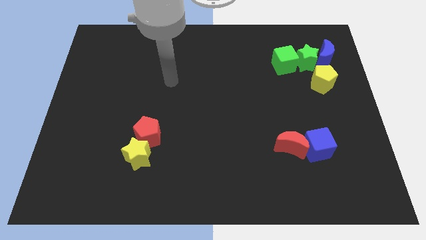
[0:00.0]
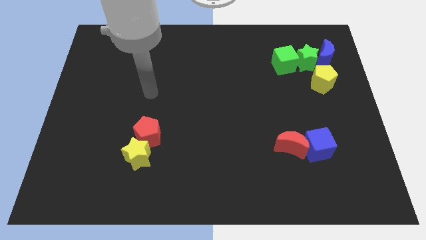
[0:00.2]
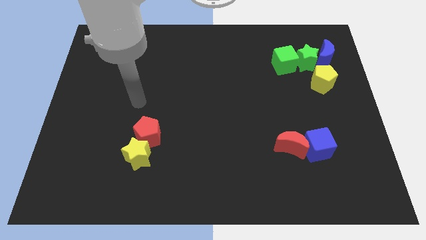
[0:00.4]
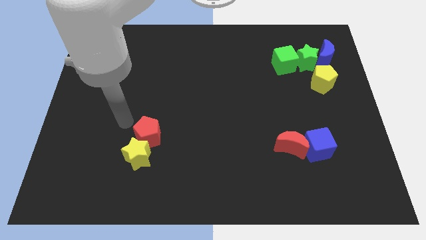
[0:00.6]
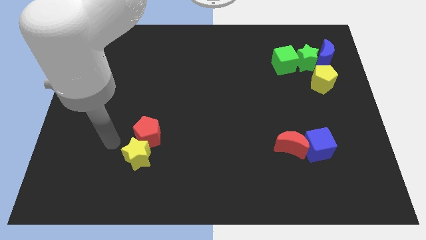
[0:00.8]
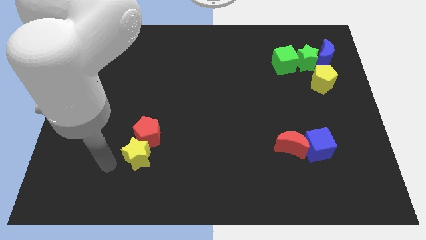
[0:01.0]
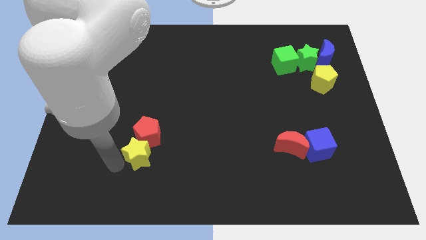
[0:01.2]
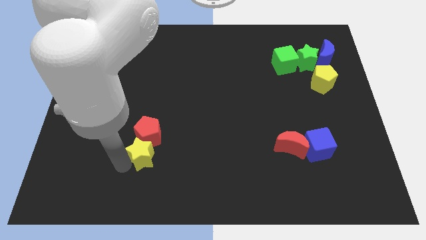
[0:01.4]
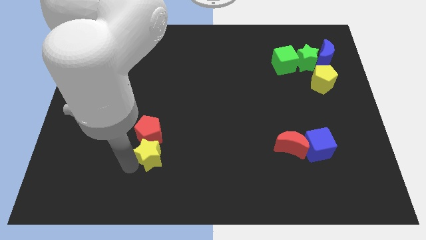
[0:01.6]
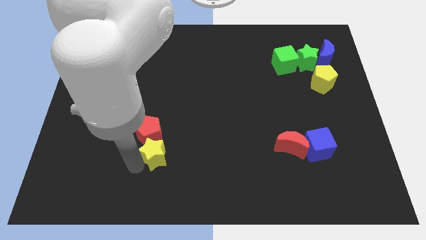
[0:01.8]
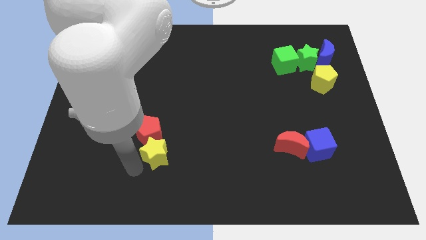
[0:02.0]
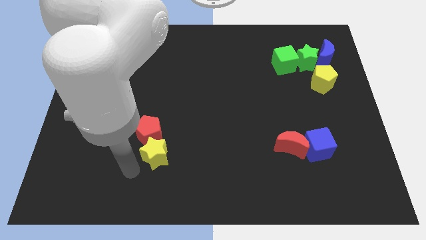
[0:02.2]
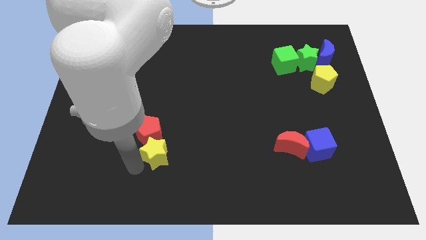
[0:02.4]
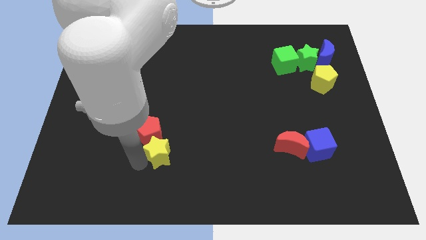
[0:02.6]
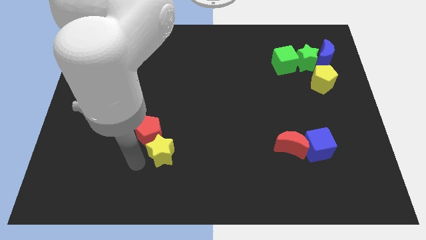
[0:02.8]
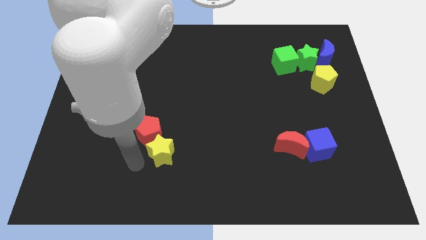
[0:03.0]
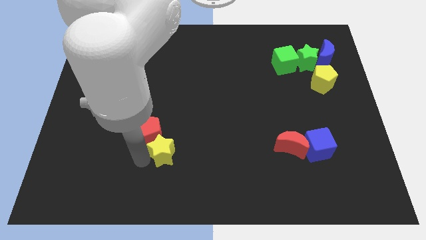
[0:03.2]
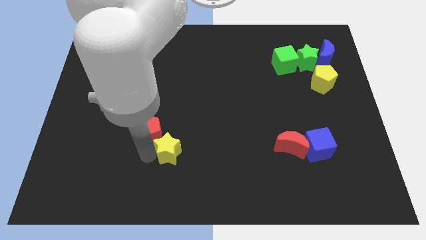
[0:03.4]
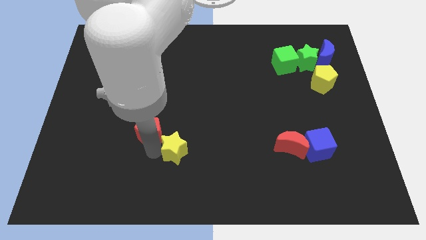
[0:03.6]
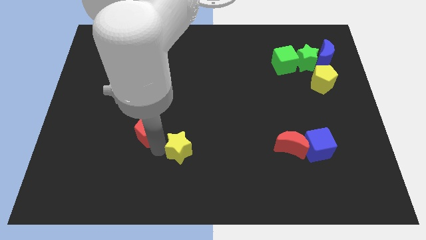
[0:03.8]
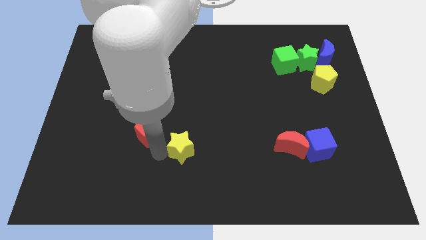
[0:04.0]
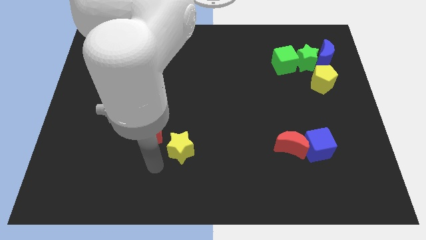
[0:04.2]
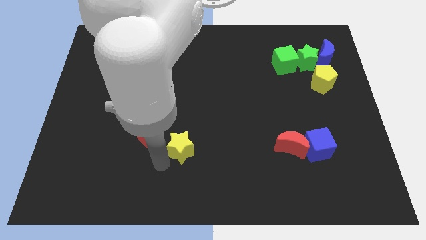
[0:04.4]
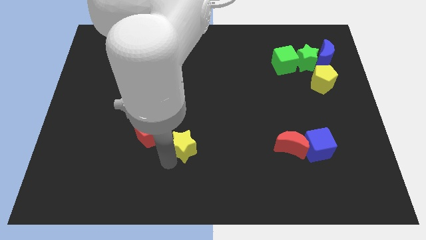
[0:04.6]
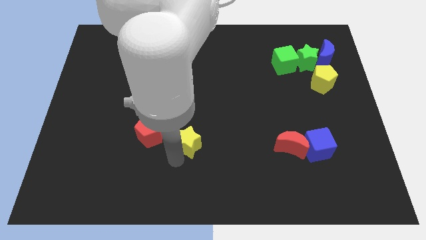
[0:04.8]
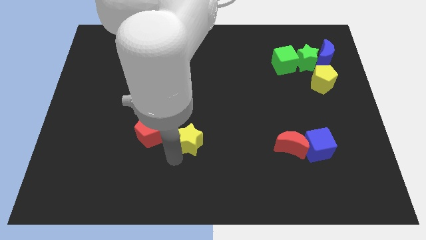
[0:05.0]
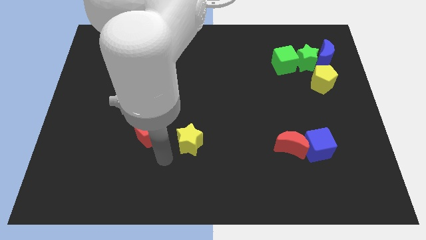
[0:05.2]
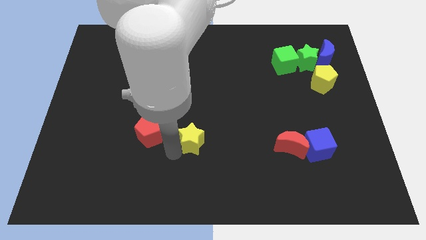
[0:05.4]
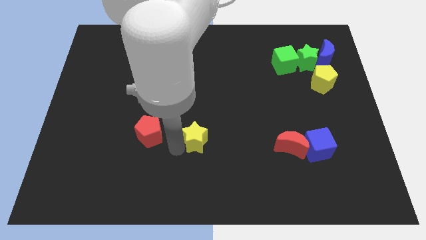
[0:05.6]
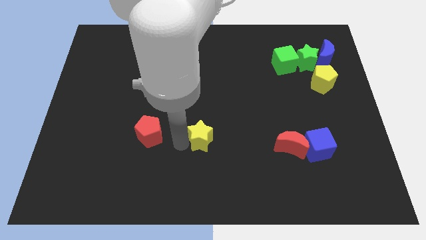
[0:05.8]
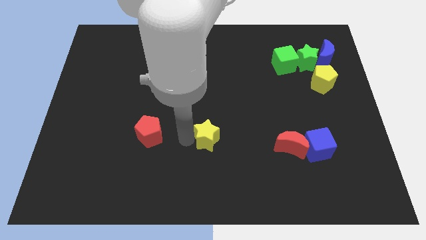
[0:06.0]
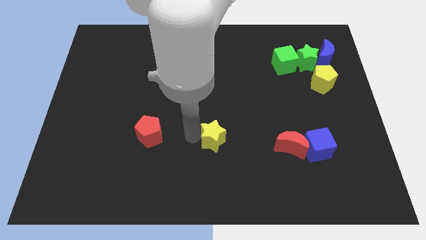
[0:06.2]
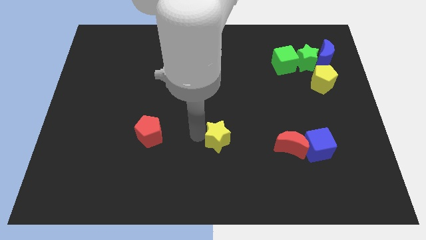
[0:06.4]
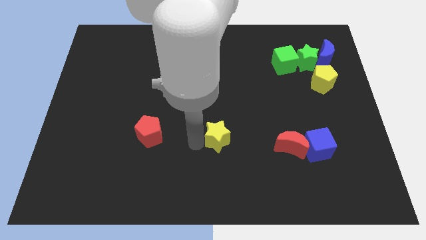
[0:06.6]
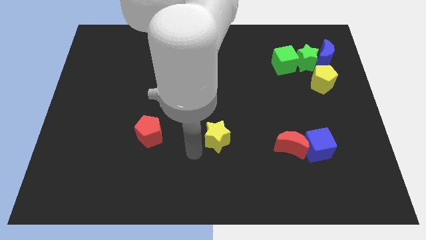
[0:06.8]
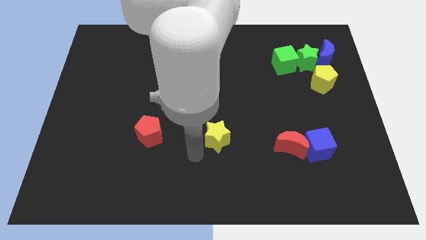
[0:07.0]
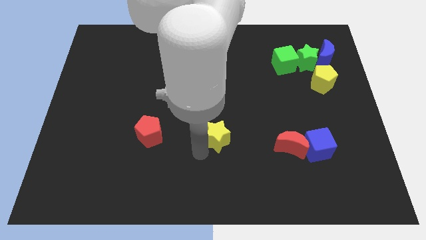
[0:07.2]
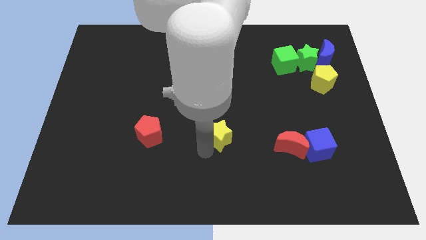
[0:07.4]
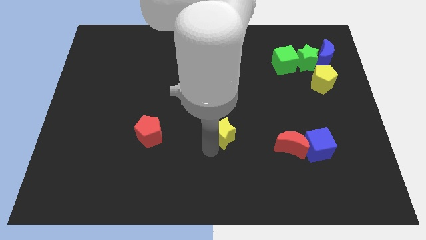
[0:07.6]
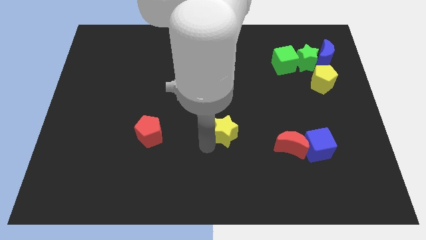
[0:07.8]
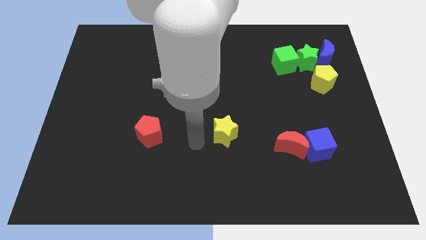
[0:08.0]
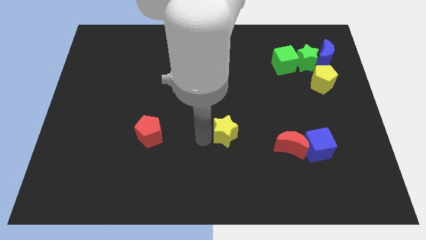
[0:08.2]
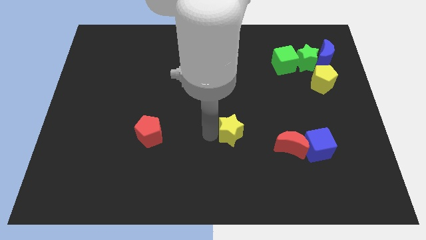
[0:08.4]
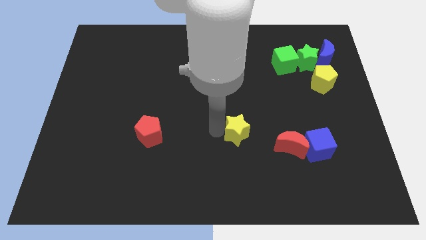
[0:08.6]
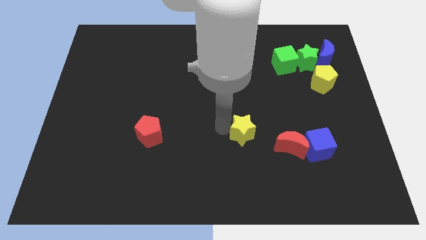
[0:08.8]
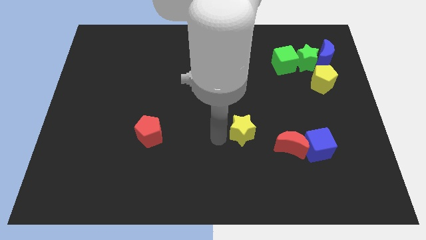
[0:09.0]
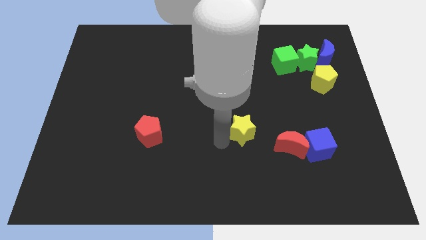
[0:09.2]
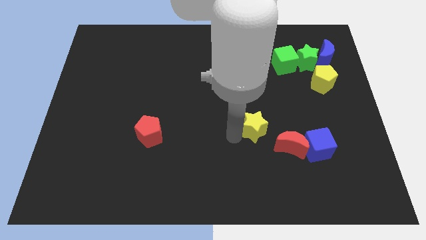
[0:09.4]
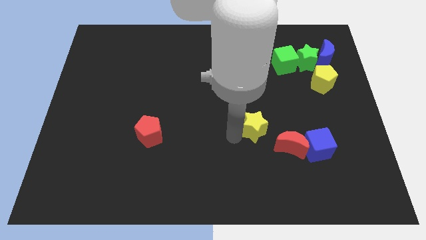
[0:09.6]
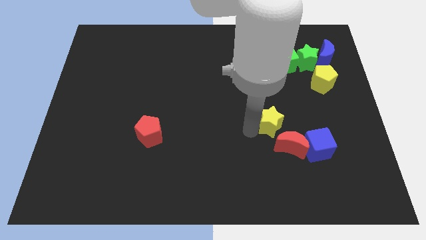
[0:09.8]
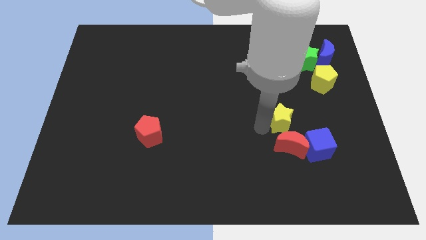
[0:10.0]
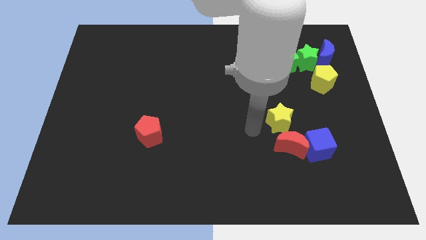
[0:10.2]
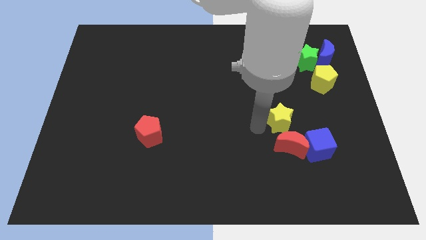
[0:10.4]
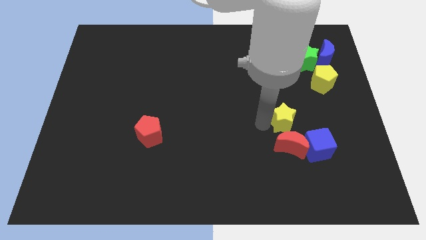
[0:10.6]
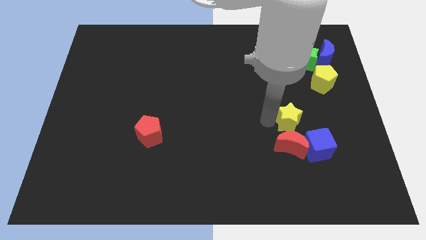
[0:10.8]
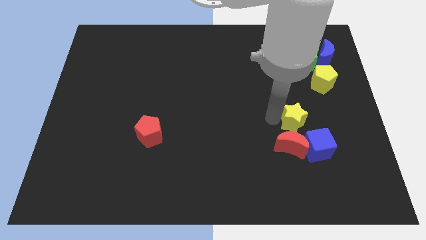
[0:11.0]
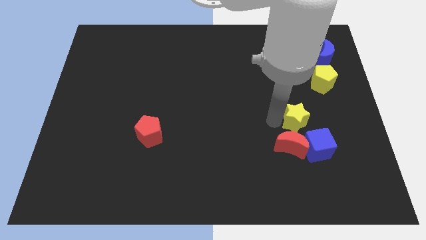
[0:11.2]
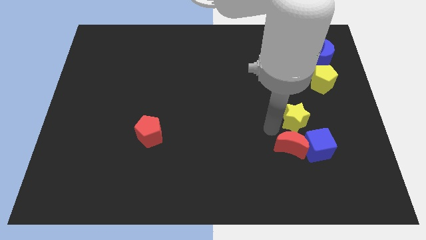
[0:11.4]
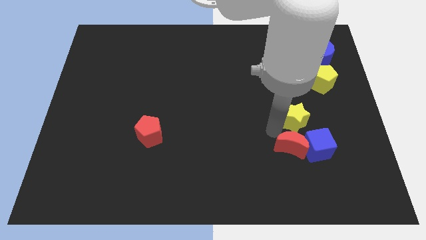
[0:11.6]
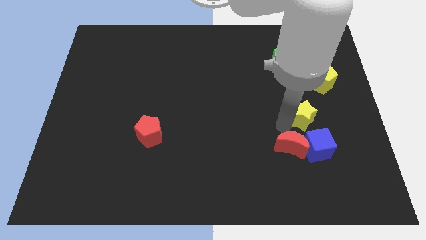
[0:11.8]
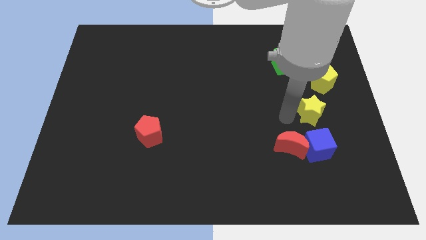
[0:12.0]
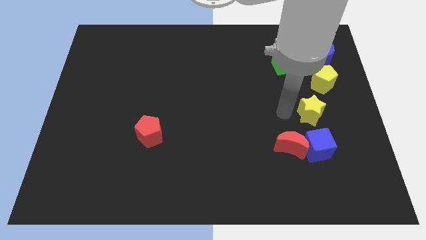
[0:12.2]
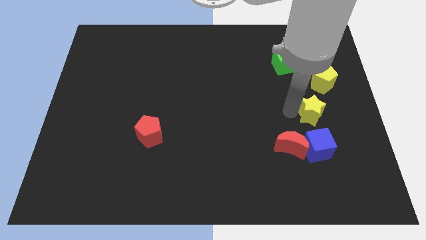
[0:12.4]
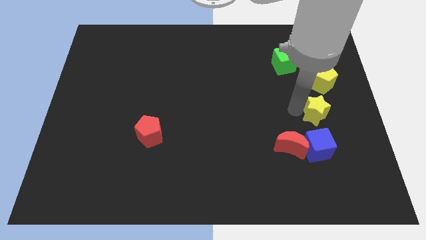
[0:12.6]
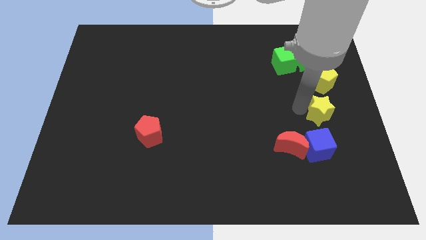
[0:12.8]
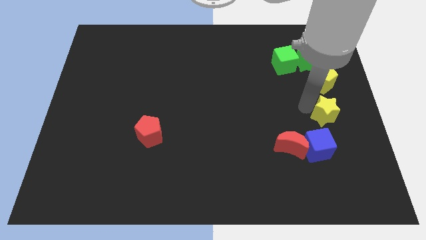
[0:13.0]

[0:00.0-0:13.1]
push the yellow star to the right side of the board

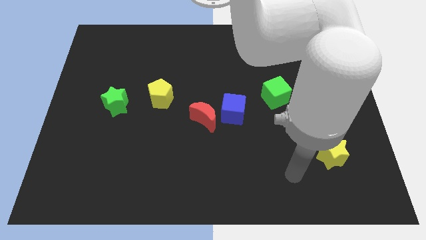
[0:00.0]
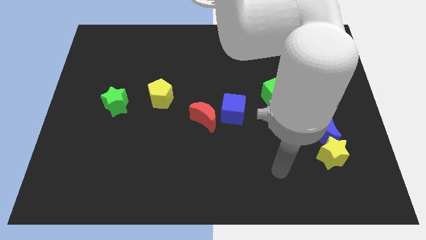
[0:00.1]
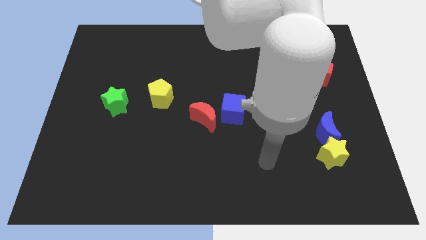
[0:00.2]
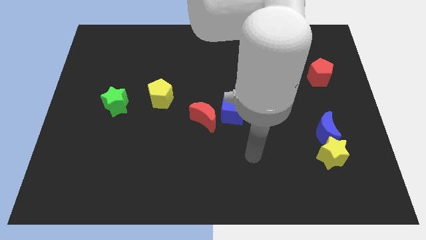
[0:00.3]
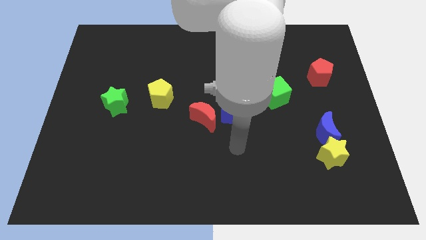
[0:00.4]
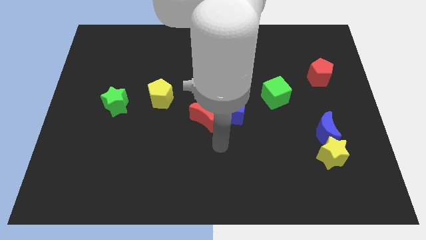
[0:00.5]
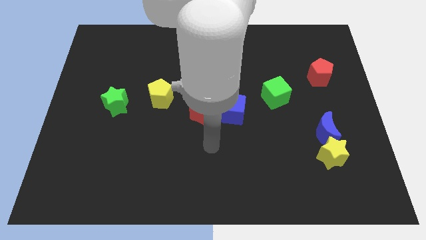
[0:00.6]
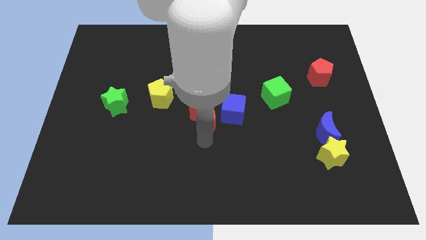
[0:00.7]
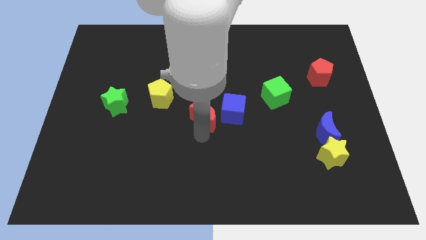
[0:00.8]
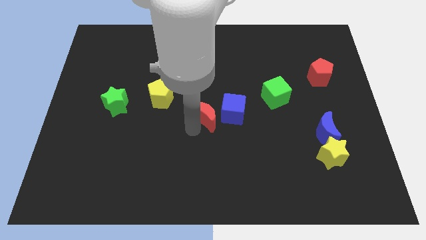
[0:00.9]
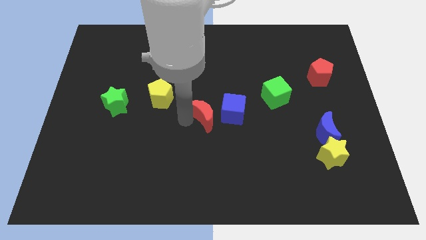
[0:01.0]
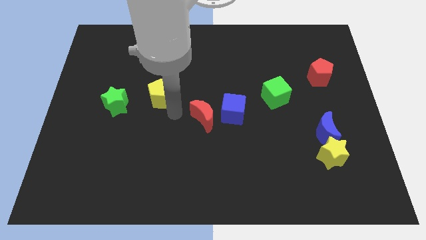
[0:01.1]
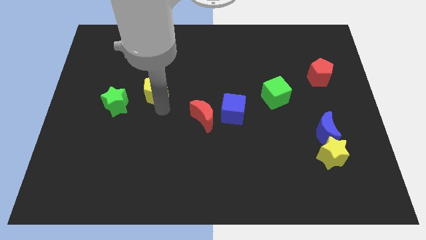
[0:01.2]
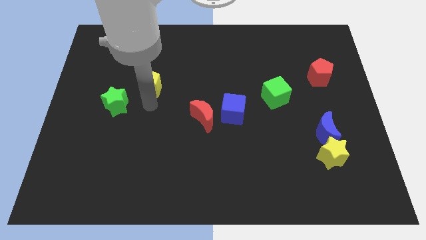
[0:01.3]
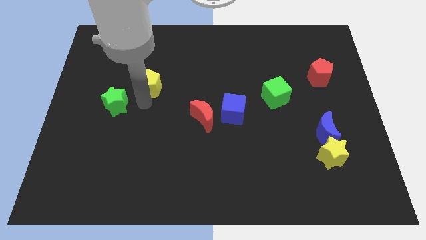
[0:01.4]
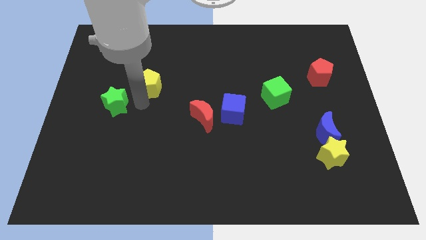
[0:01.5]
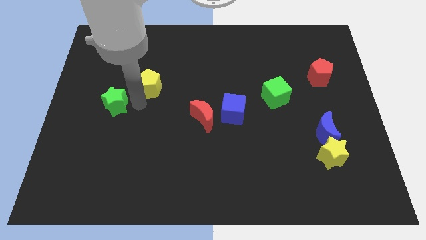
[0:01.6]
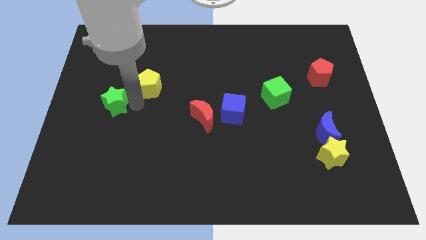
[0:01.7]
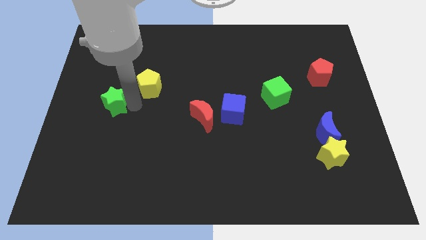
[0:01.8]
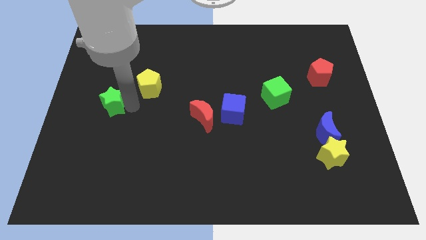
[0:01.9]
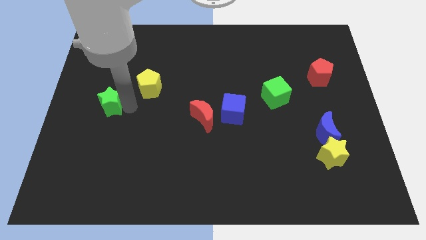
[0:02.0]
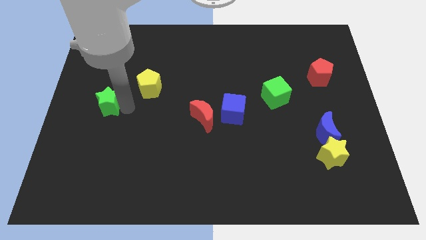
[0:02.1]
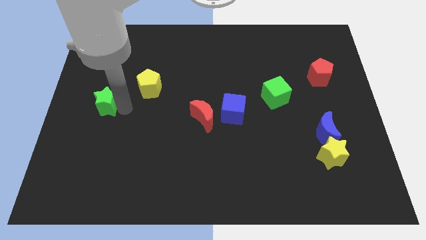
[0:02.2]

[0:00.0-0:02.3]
push the green star to the left side
